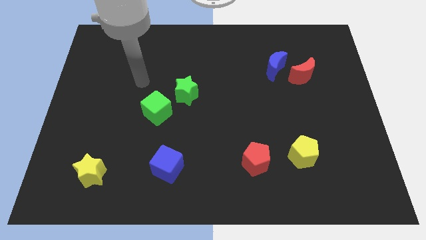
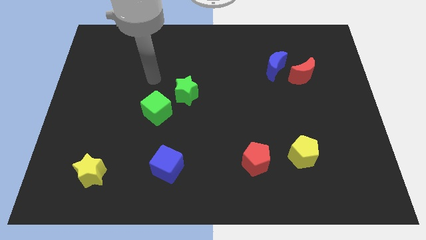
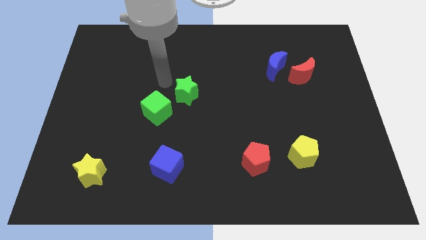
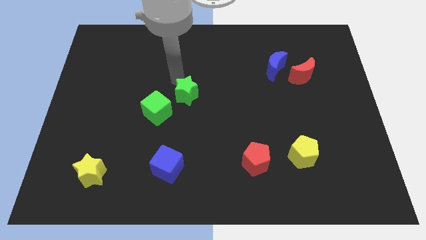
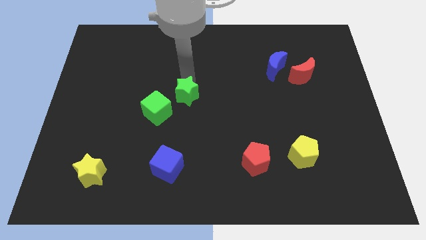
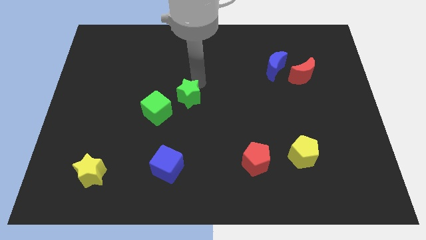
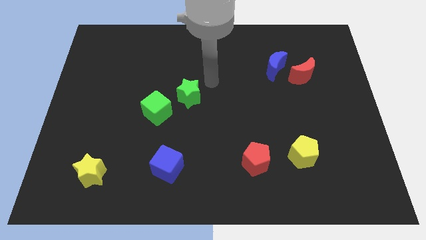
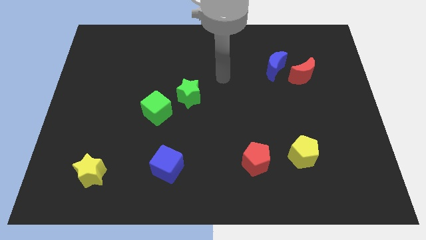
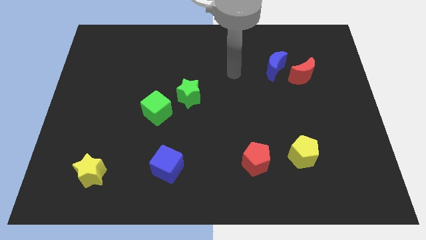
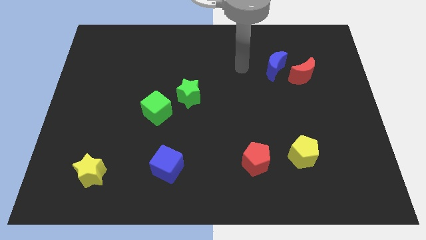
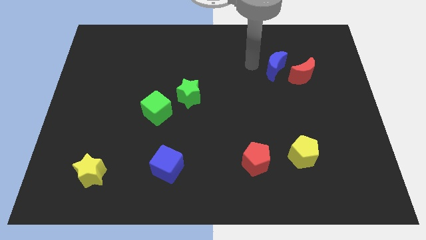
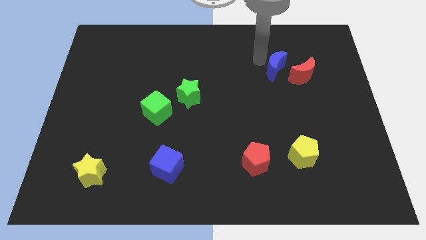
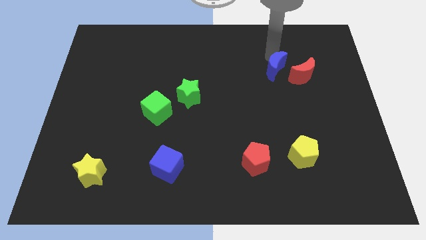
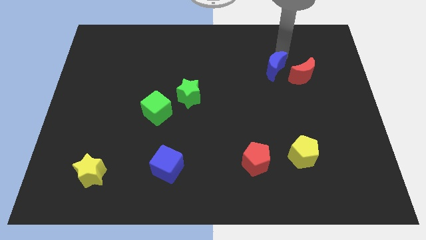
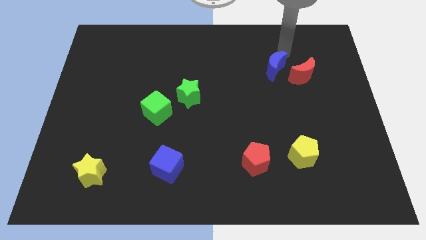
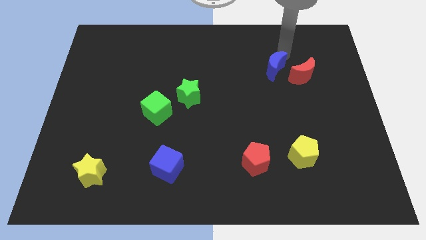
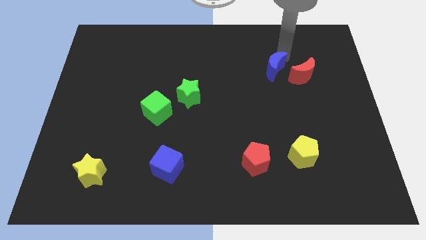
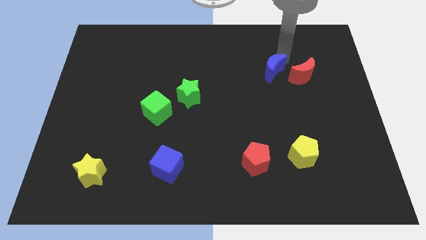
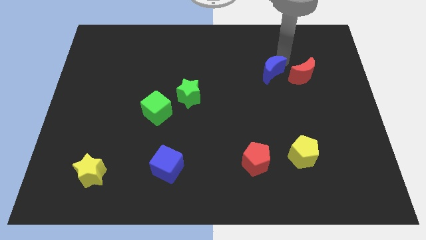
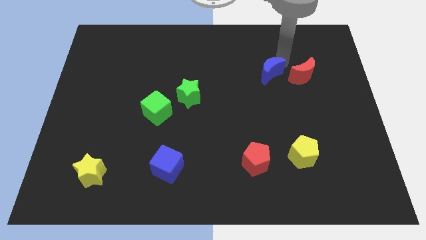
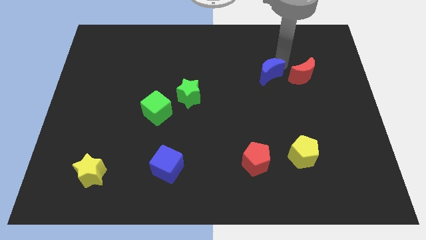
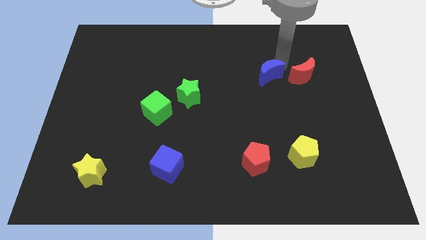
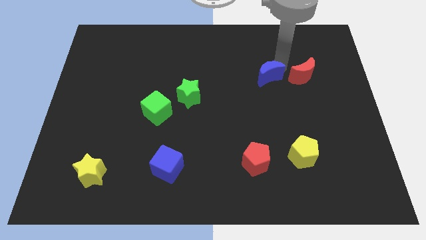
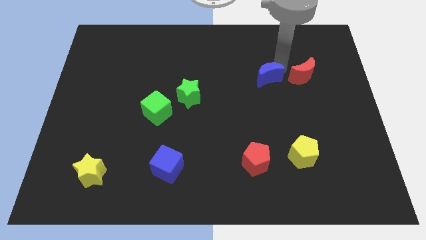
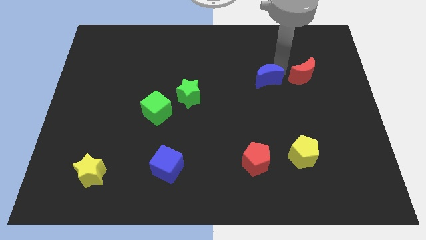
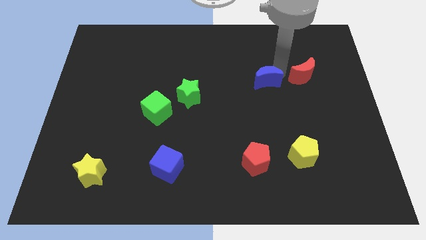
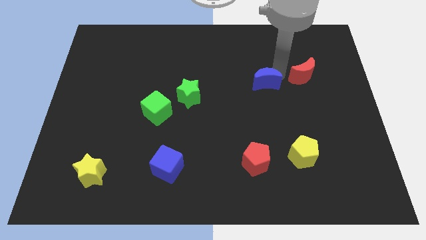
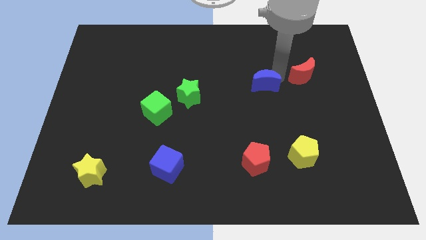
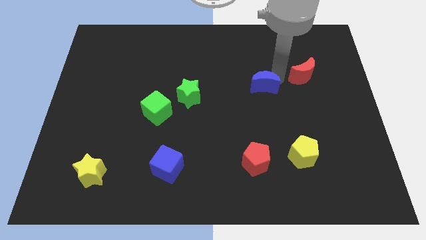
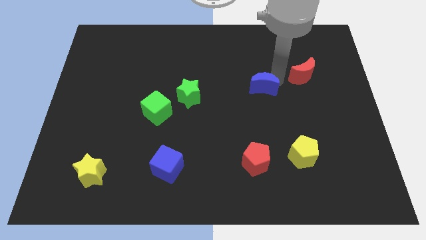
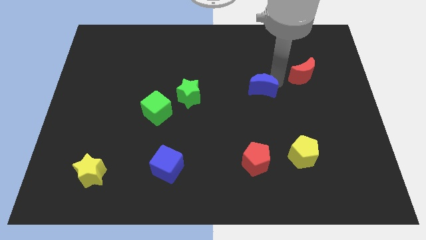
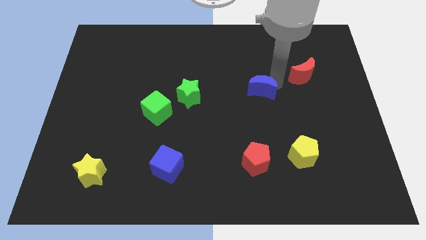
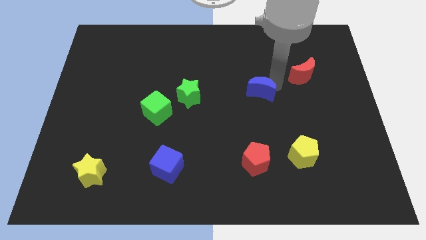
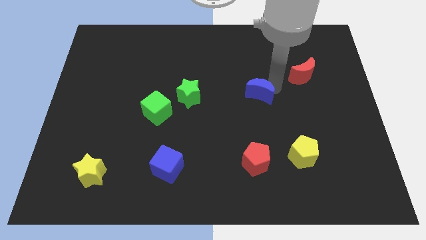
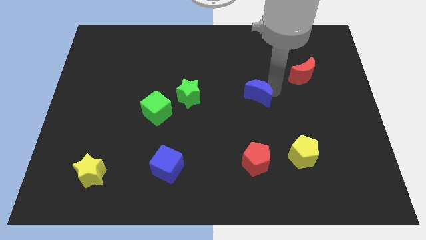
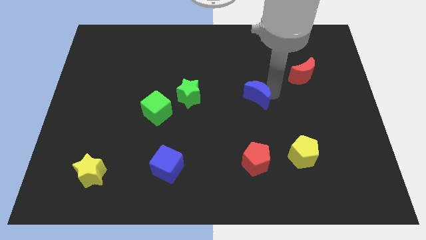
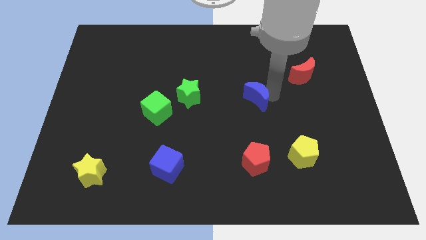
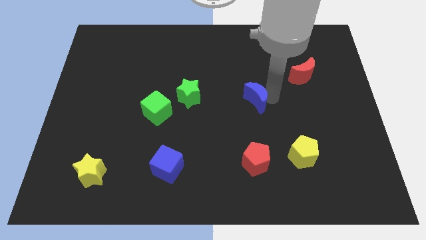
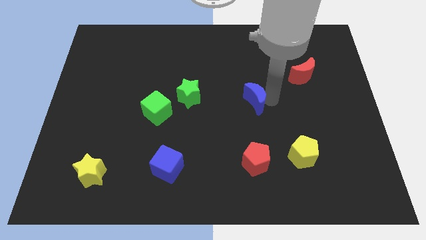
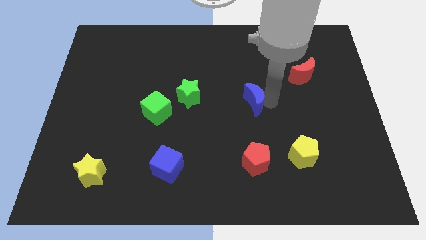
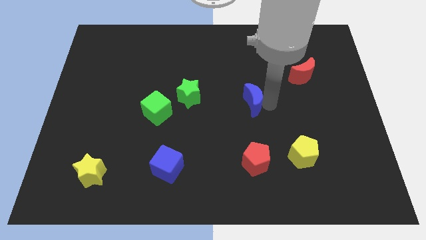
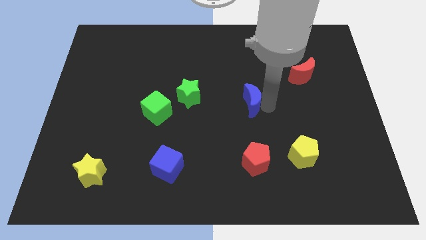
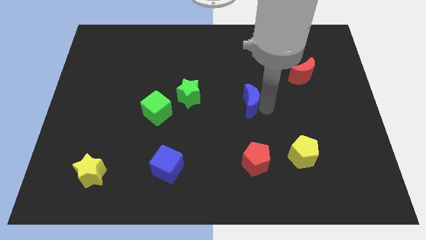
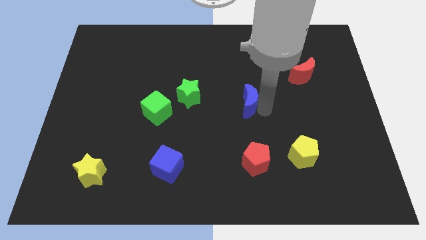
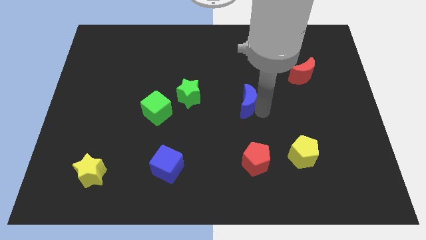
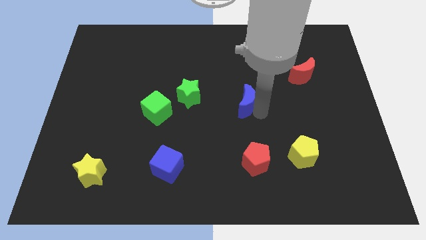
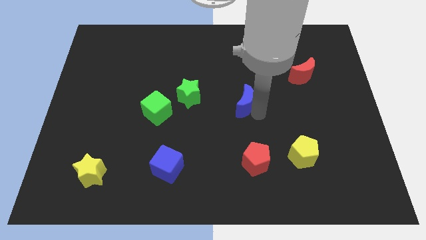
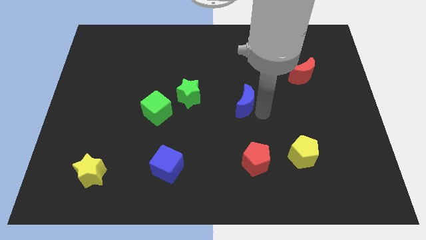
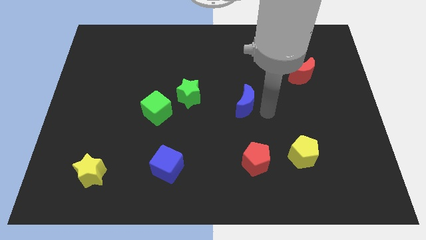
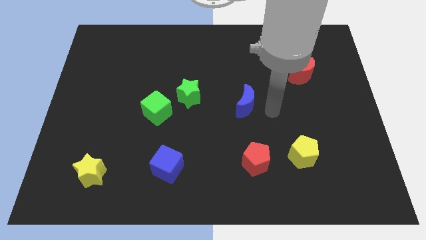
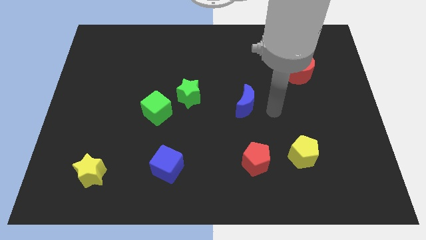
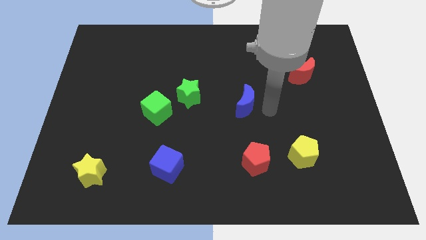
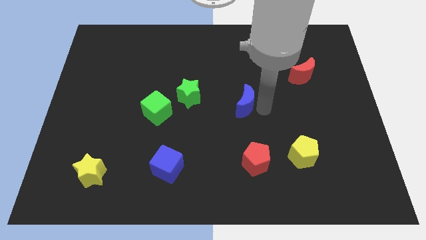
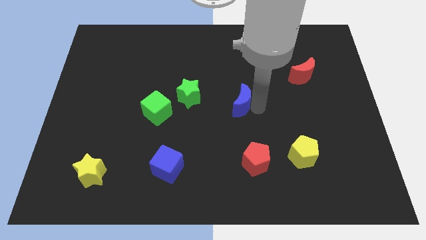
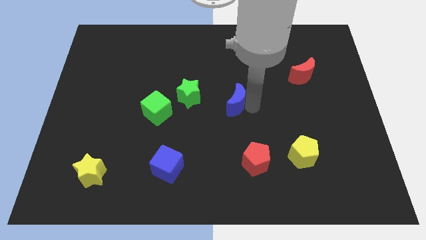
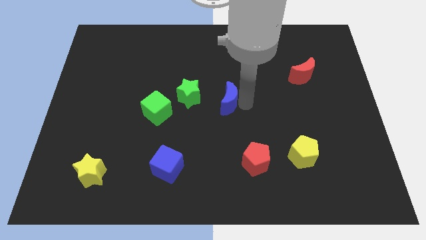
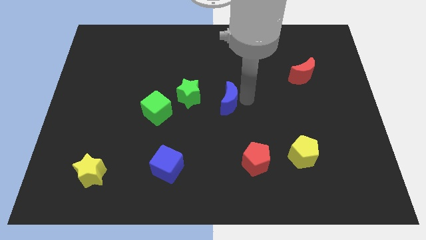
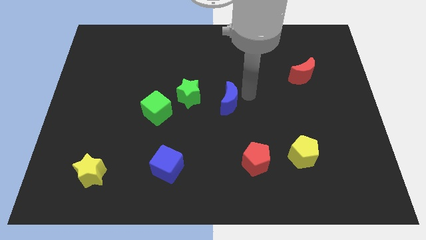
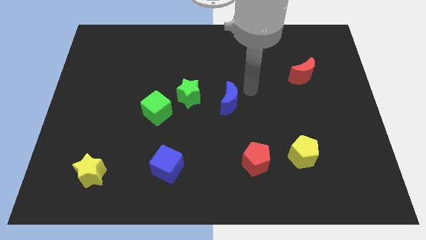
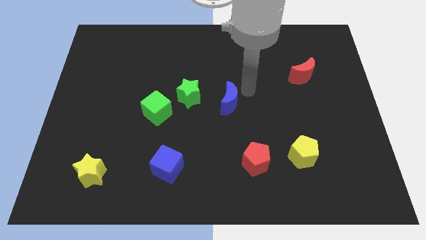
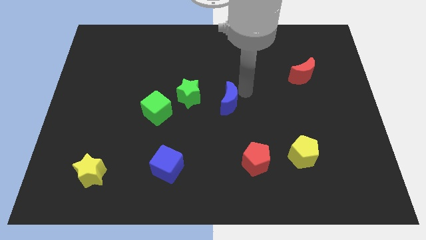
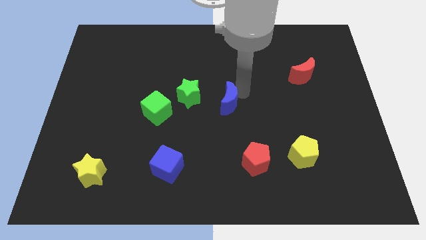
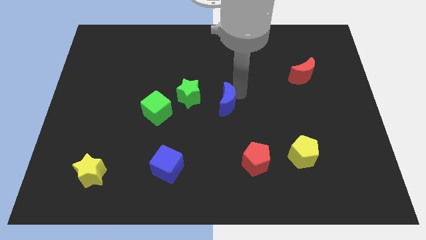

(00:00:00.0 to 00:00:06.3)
put the blue moon diagonally down and to the right of the green star

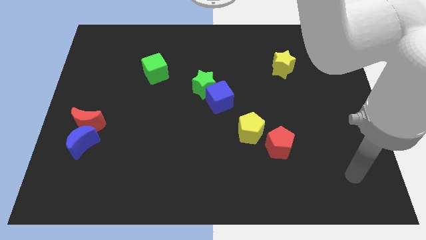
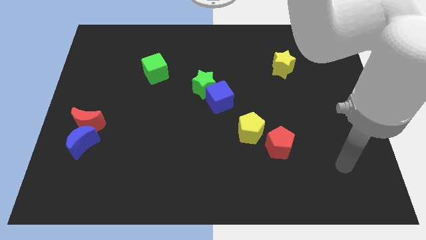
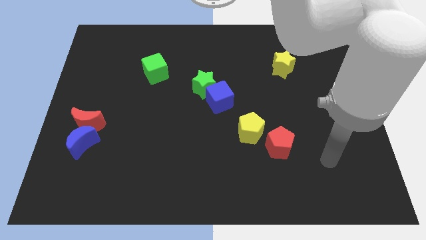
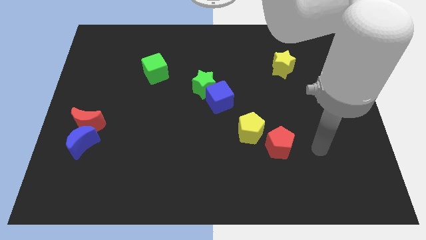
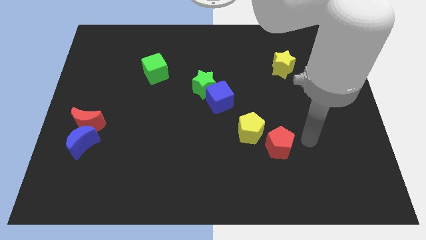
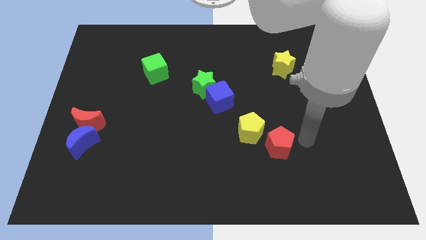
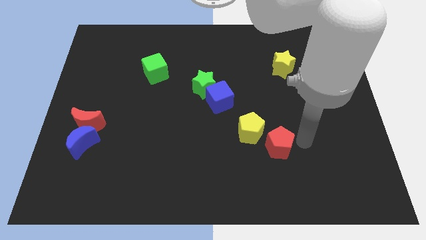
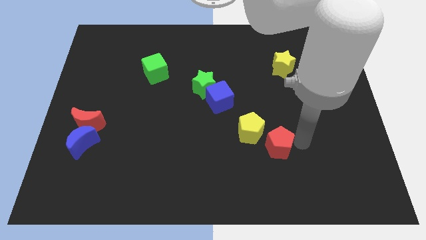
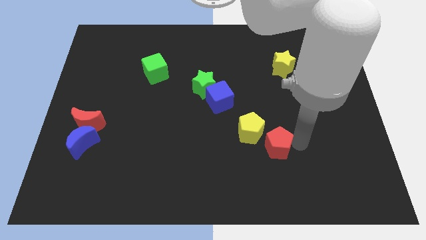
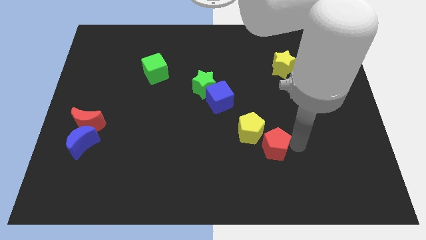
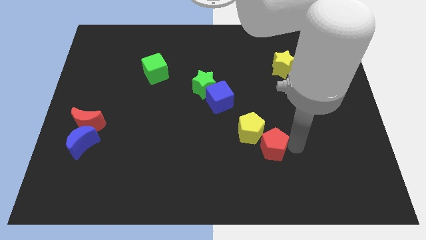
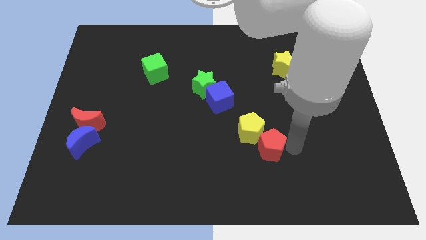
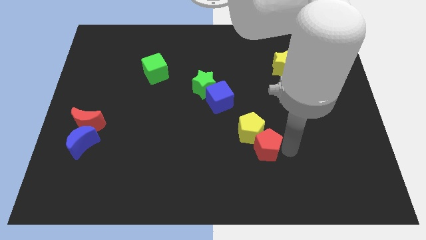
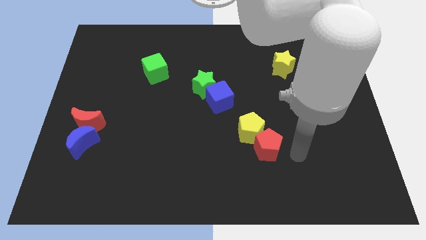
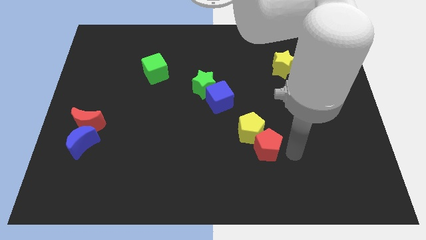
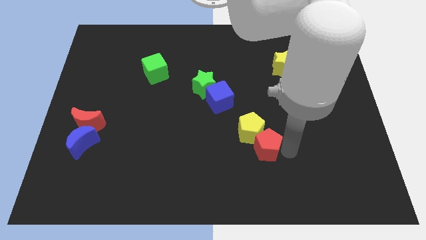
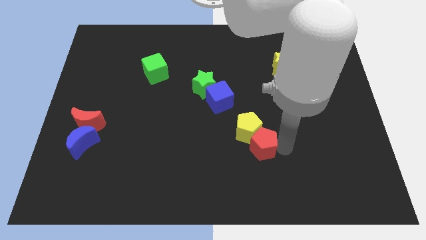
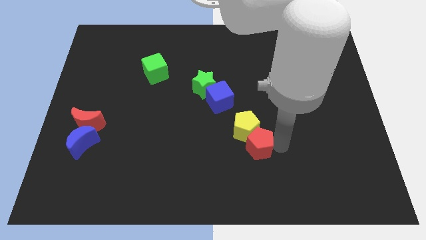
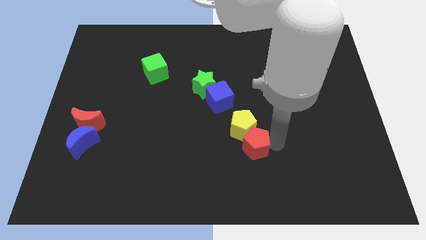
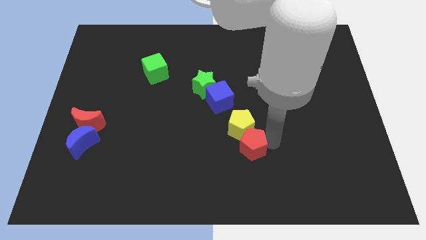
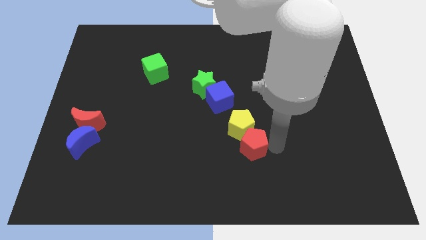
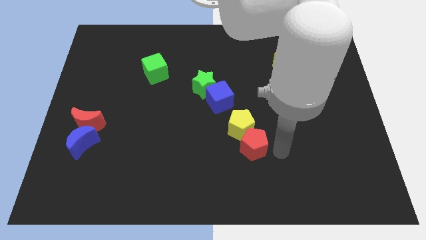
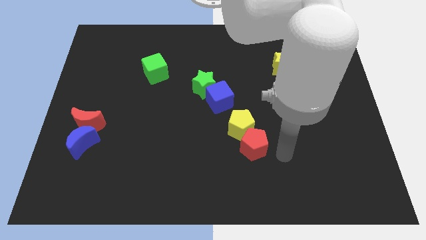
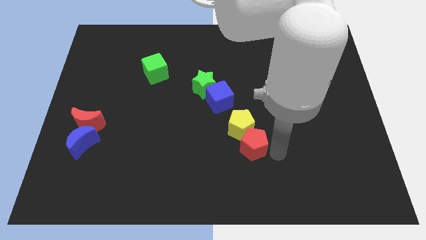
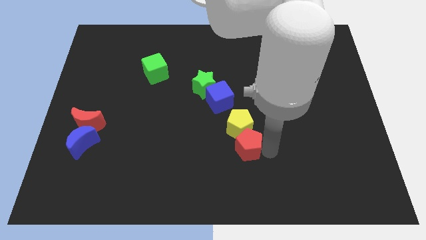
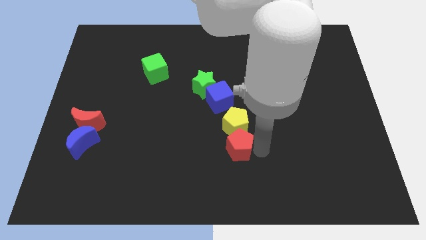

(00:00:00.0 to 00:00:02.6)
move the red pentagon below the blue cube
